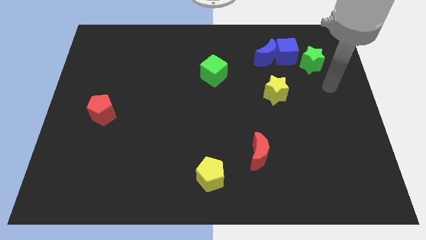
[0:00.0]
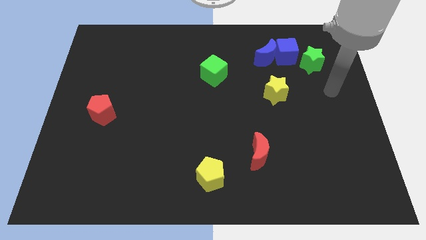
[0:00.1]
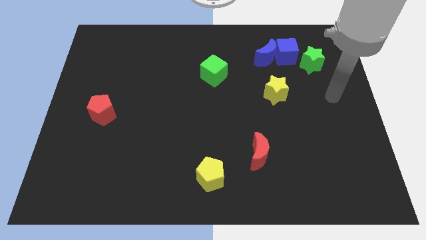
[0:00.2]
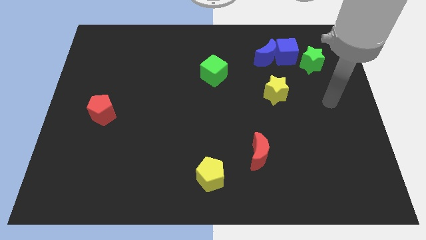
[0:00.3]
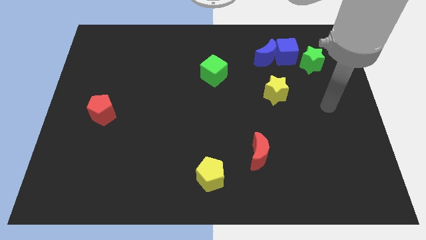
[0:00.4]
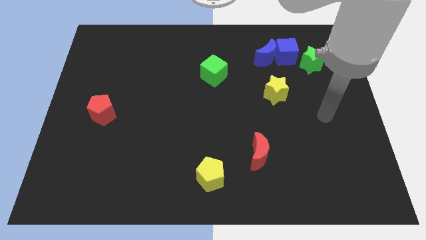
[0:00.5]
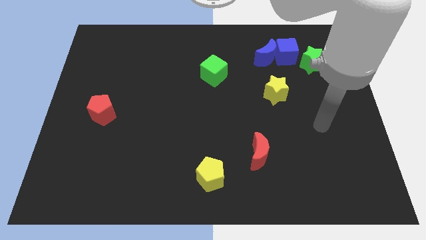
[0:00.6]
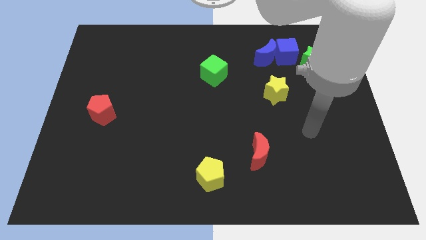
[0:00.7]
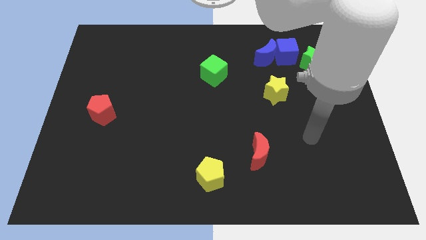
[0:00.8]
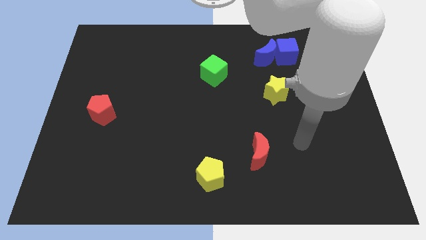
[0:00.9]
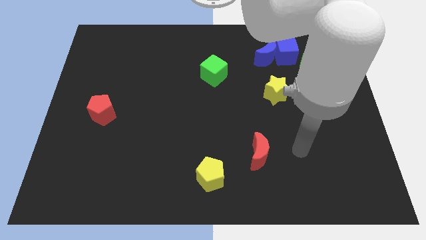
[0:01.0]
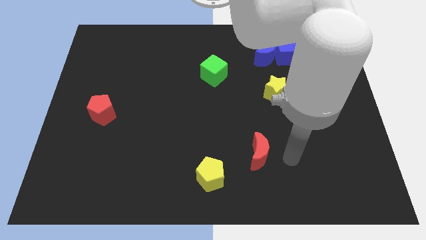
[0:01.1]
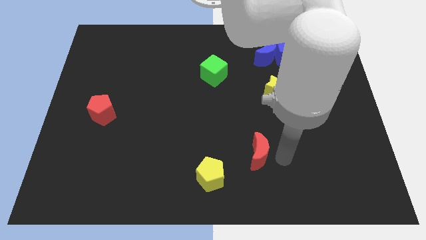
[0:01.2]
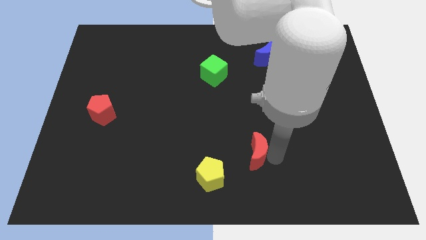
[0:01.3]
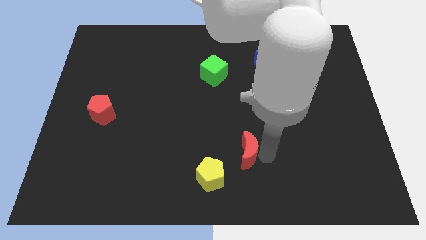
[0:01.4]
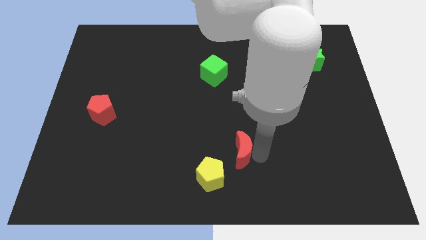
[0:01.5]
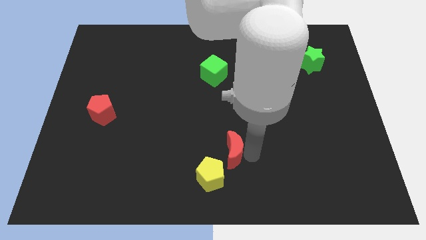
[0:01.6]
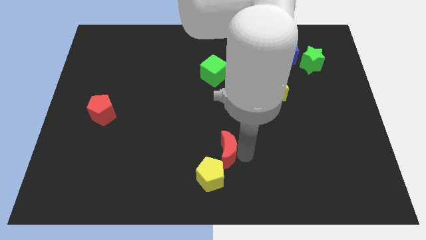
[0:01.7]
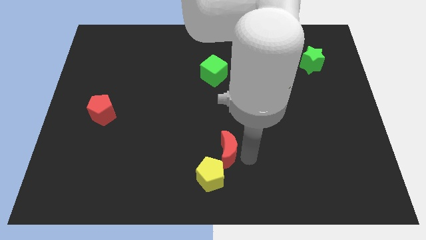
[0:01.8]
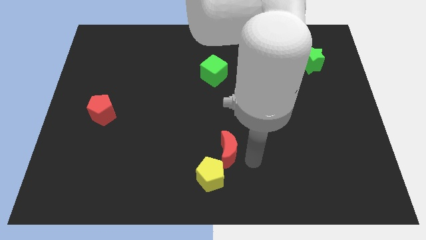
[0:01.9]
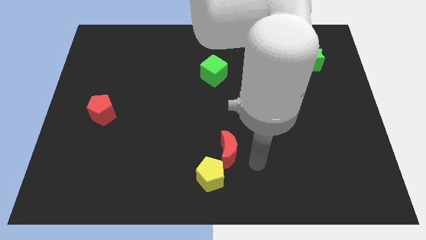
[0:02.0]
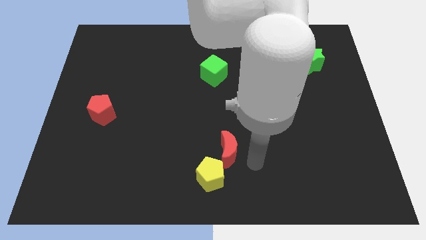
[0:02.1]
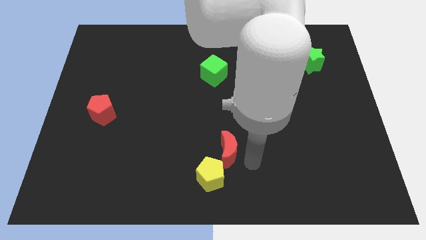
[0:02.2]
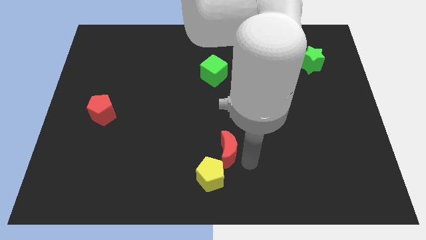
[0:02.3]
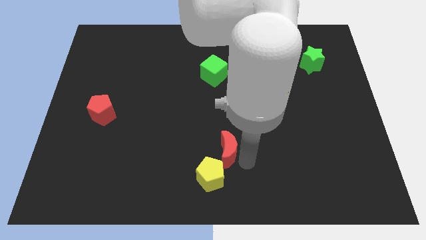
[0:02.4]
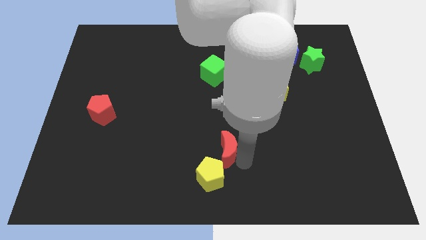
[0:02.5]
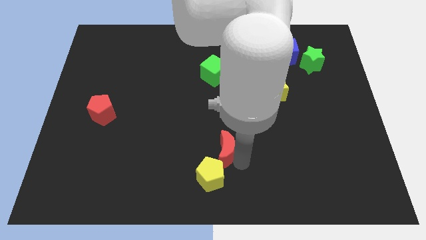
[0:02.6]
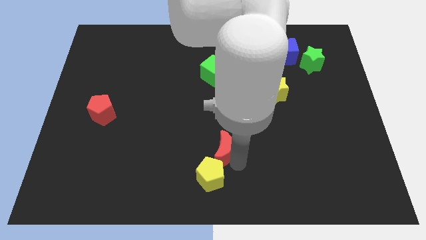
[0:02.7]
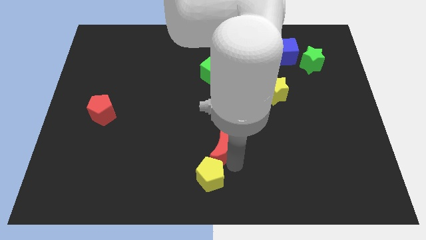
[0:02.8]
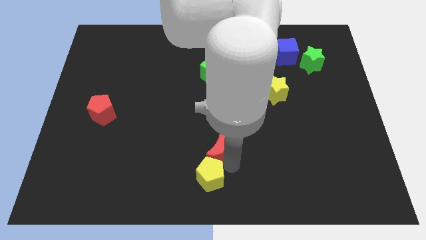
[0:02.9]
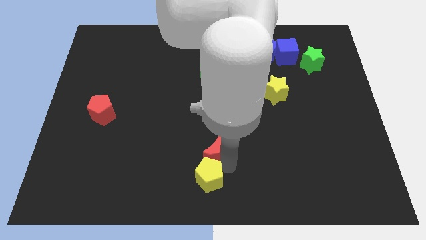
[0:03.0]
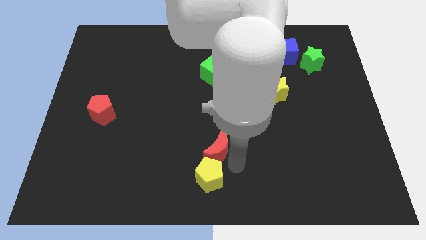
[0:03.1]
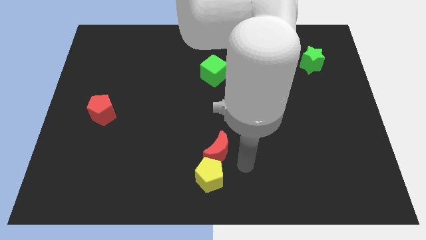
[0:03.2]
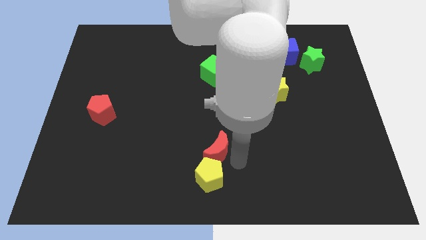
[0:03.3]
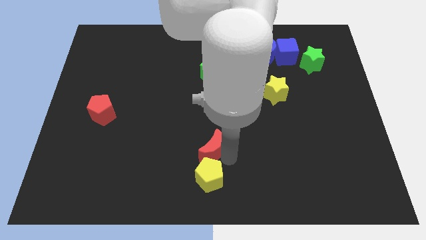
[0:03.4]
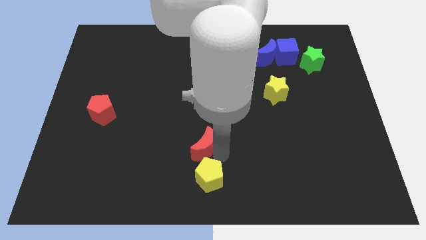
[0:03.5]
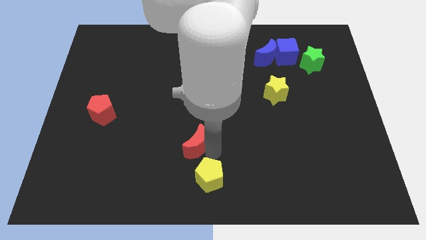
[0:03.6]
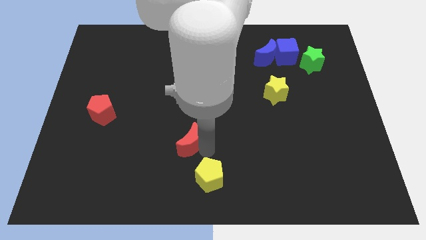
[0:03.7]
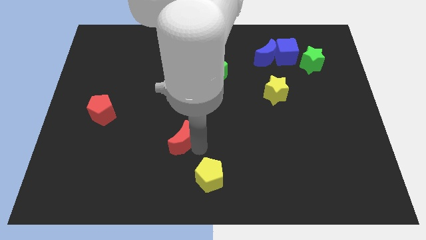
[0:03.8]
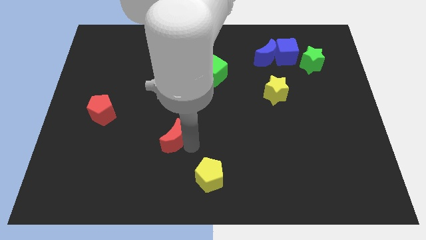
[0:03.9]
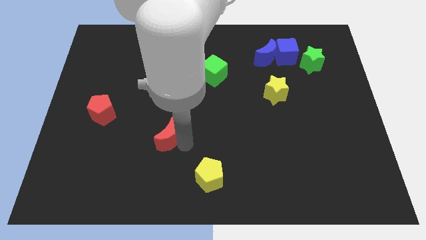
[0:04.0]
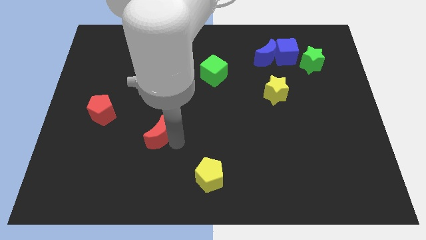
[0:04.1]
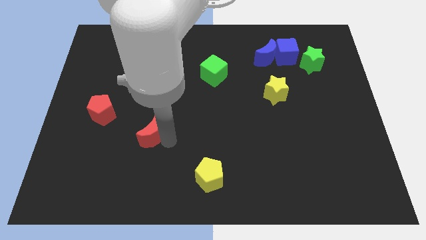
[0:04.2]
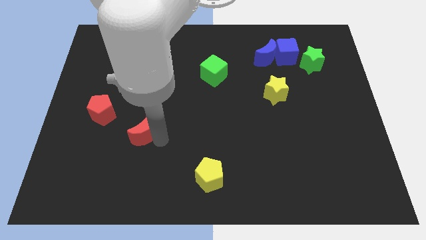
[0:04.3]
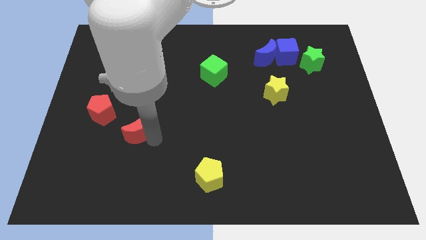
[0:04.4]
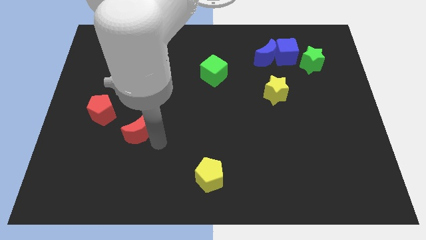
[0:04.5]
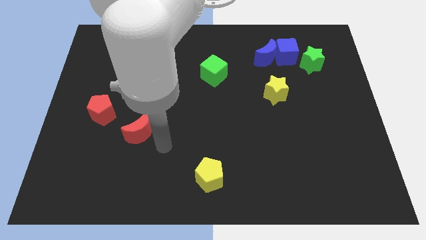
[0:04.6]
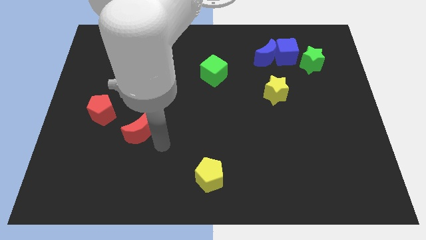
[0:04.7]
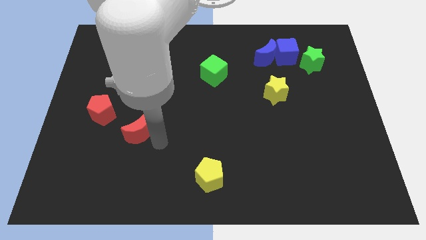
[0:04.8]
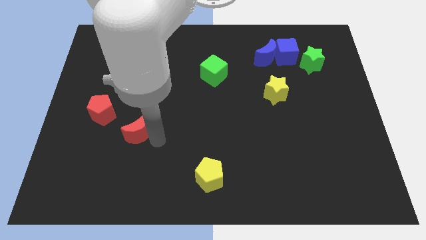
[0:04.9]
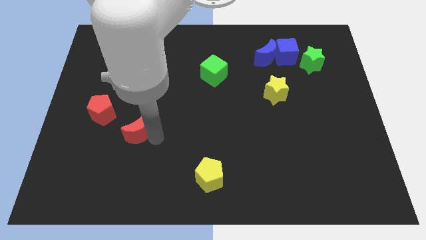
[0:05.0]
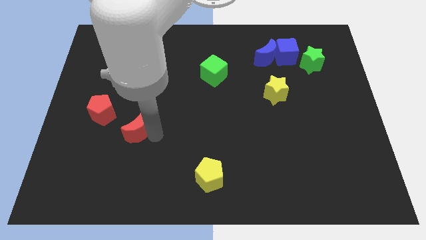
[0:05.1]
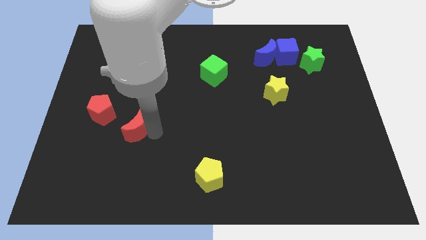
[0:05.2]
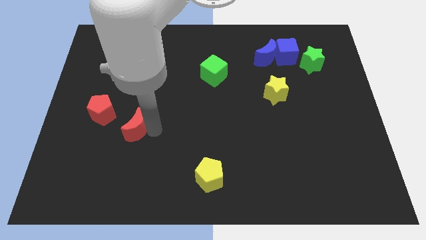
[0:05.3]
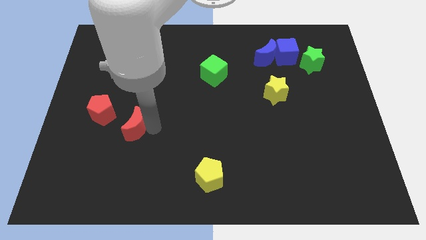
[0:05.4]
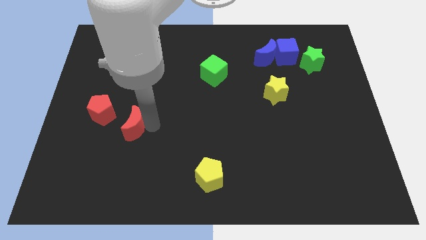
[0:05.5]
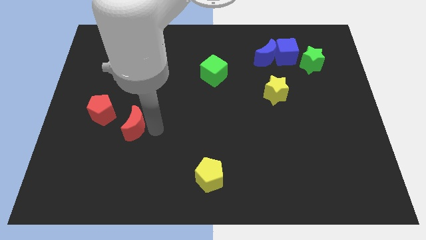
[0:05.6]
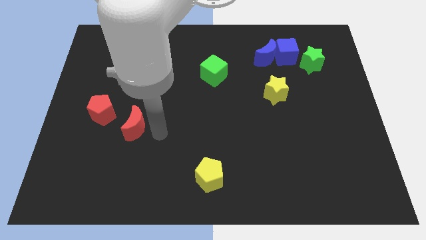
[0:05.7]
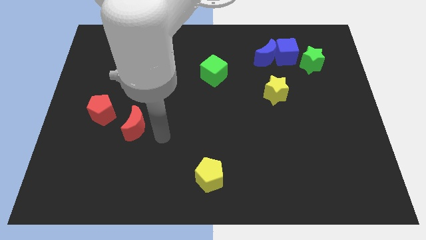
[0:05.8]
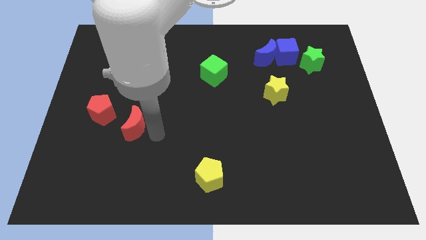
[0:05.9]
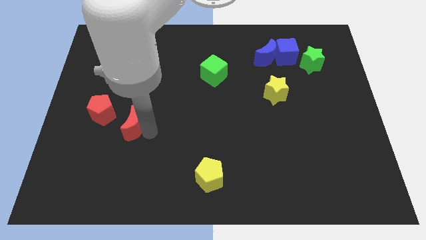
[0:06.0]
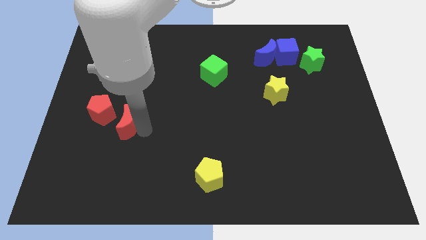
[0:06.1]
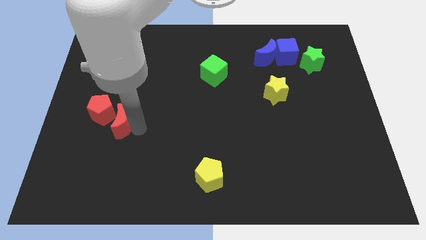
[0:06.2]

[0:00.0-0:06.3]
put the red moon towards the red pentagon

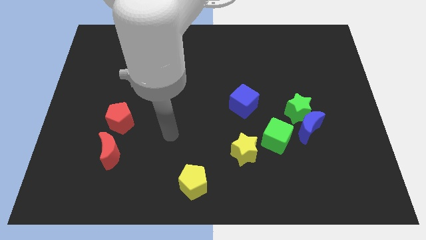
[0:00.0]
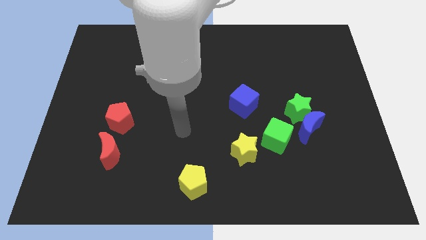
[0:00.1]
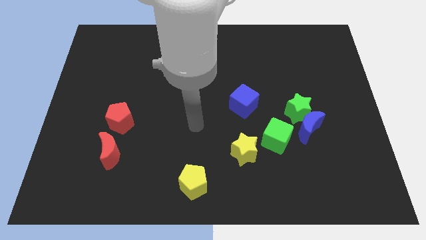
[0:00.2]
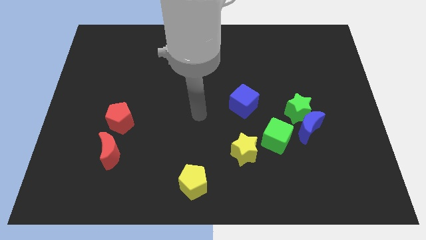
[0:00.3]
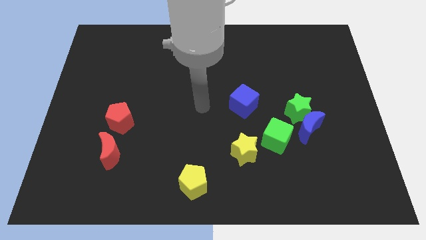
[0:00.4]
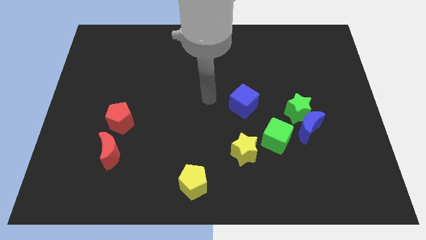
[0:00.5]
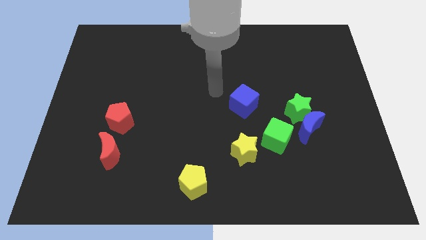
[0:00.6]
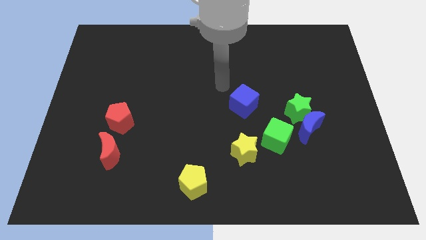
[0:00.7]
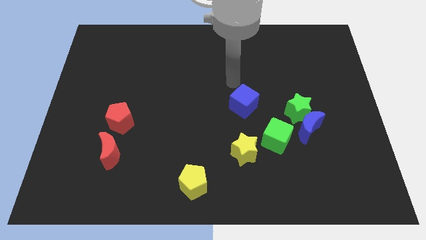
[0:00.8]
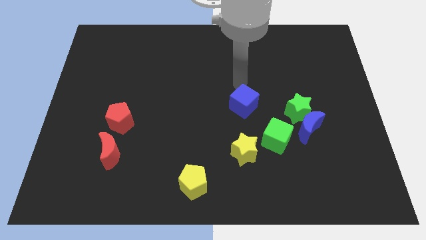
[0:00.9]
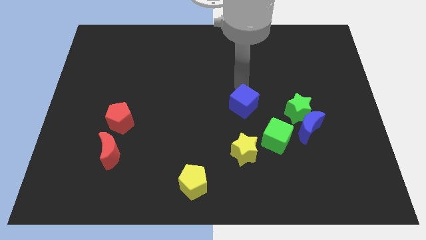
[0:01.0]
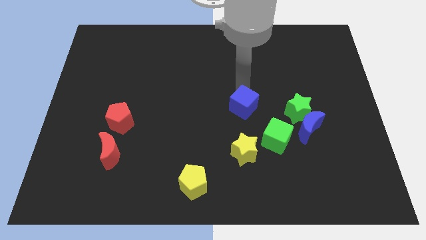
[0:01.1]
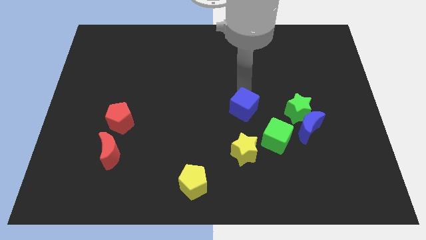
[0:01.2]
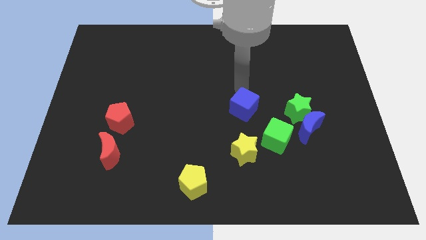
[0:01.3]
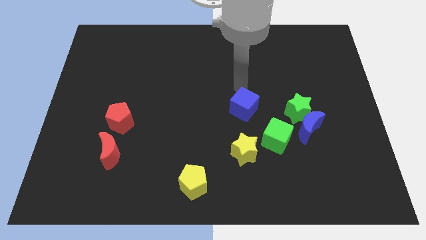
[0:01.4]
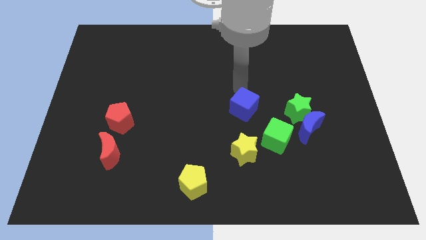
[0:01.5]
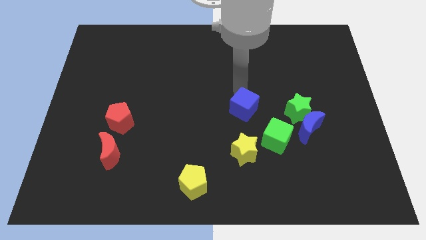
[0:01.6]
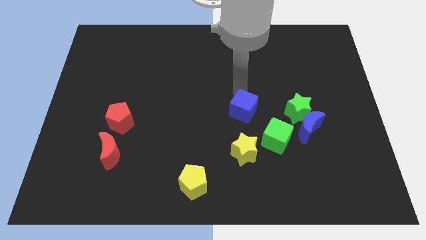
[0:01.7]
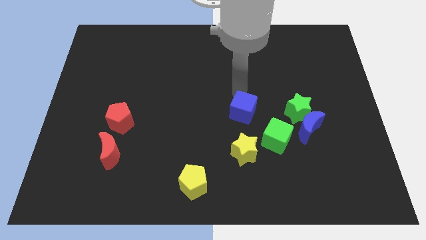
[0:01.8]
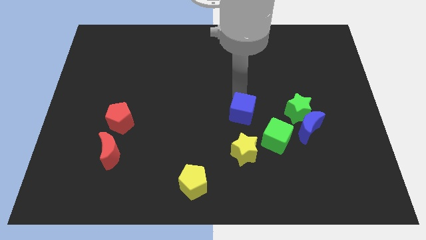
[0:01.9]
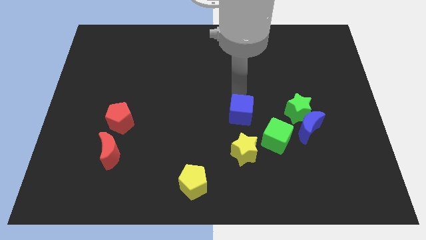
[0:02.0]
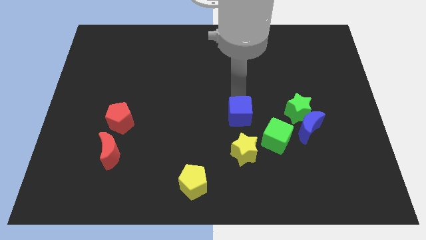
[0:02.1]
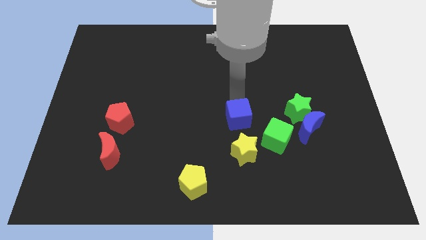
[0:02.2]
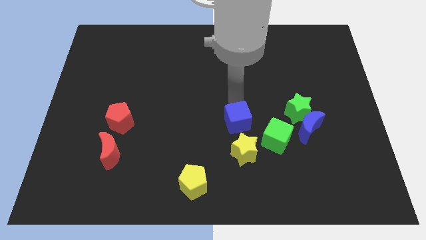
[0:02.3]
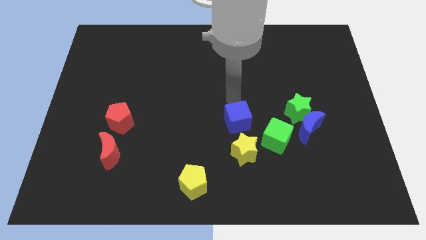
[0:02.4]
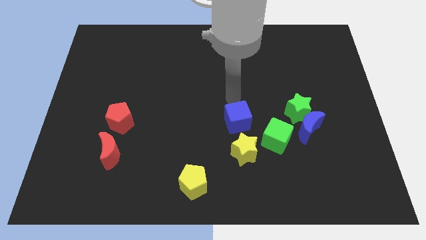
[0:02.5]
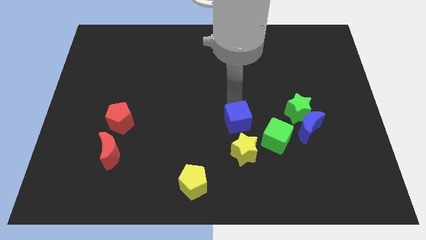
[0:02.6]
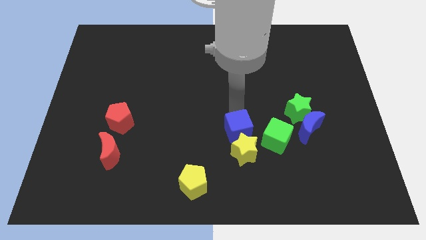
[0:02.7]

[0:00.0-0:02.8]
put the blue cube close to the yellow star
